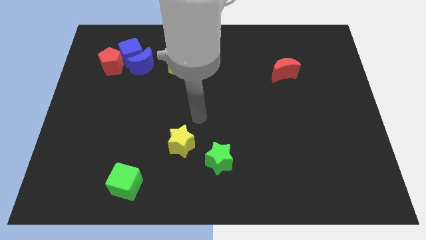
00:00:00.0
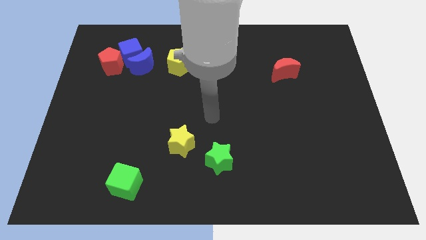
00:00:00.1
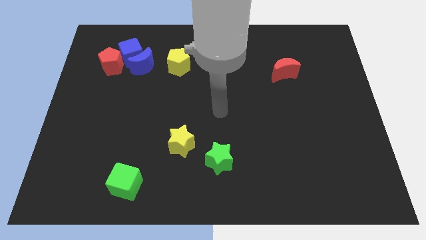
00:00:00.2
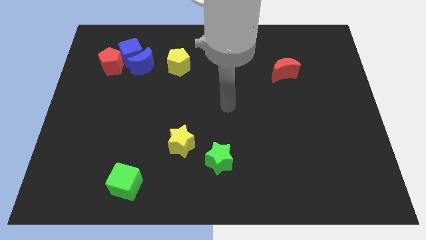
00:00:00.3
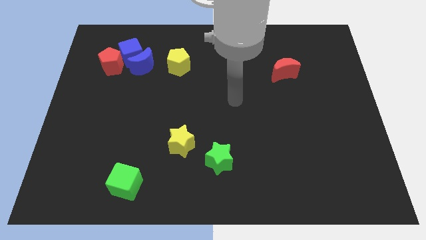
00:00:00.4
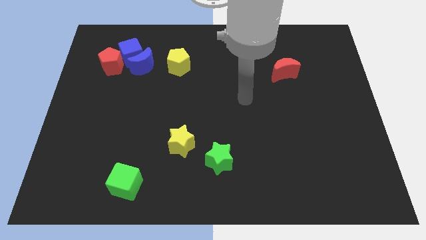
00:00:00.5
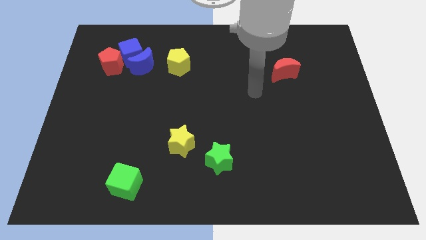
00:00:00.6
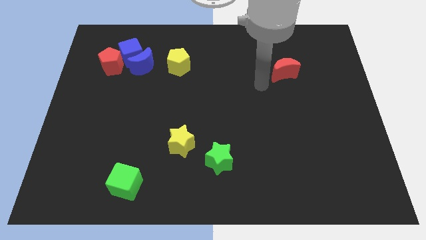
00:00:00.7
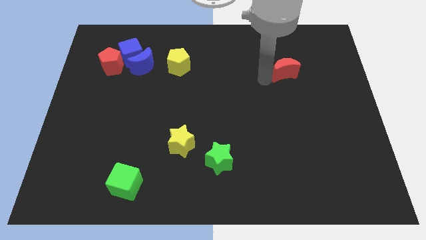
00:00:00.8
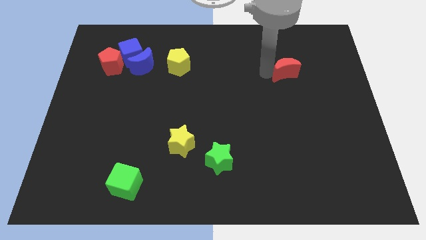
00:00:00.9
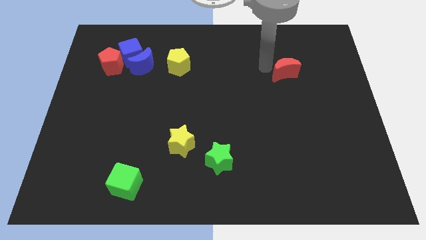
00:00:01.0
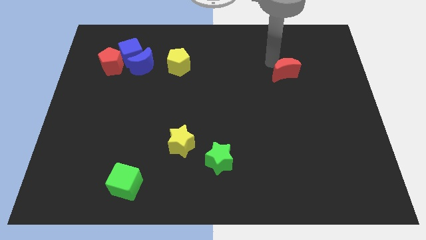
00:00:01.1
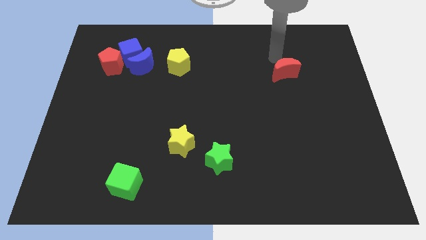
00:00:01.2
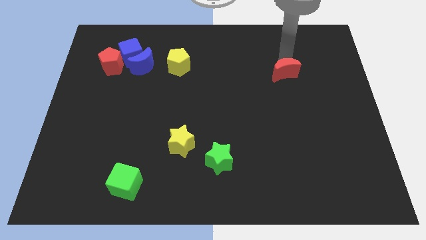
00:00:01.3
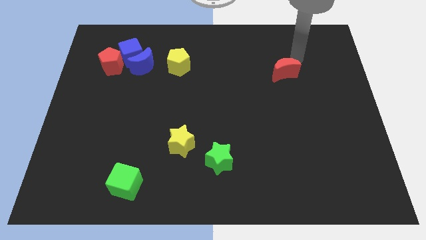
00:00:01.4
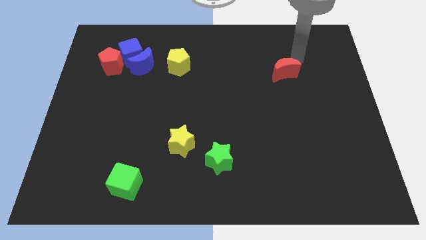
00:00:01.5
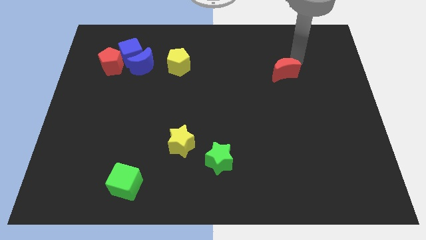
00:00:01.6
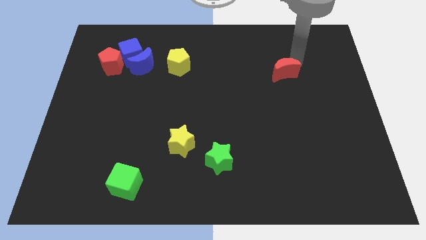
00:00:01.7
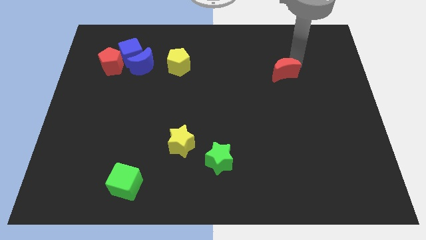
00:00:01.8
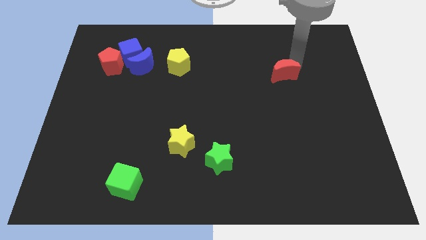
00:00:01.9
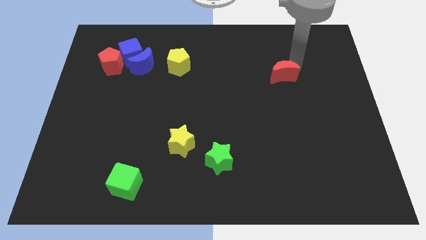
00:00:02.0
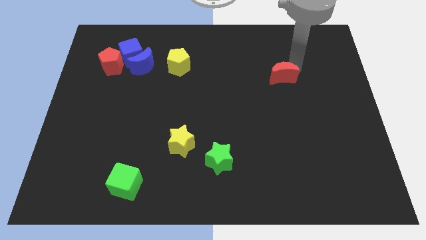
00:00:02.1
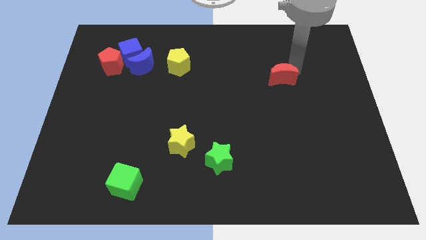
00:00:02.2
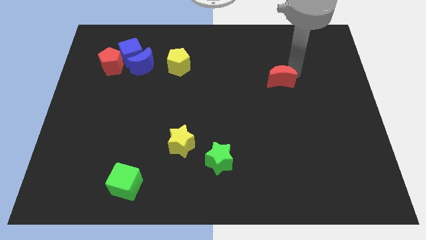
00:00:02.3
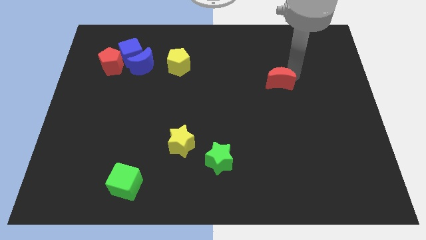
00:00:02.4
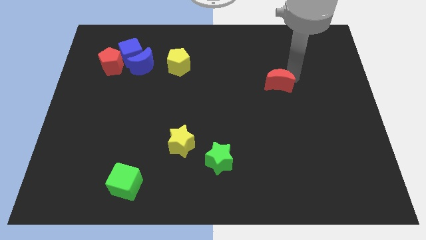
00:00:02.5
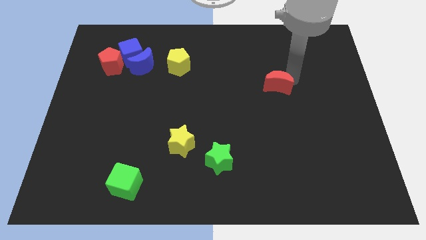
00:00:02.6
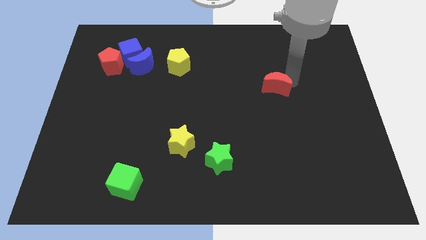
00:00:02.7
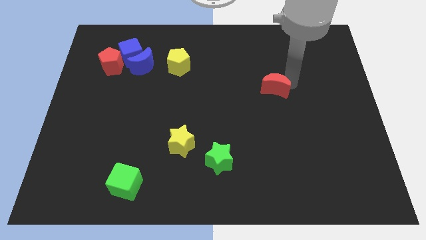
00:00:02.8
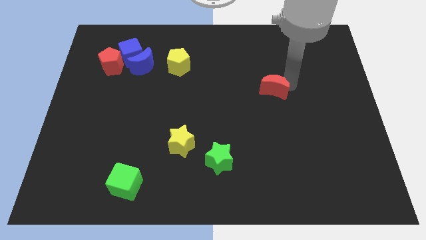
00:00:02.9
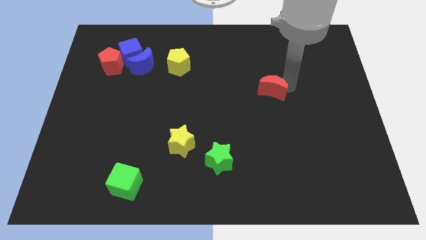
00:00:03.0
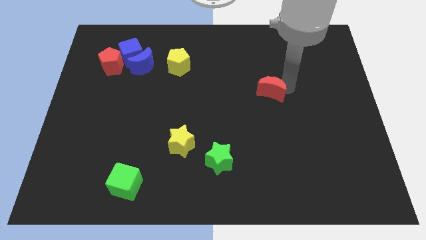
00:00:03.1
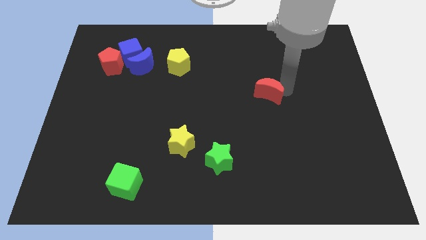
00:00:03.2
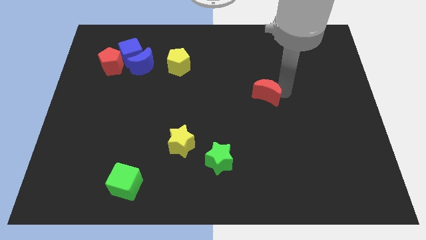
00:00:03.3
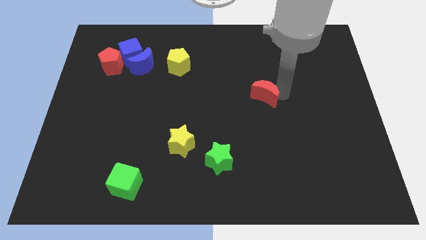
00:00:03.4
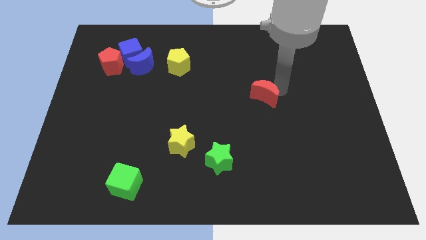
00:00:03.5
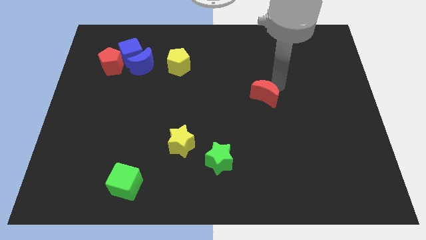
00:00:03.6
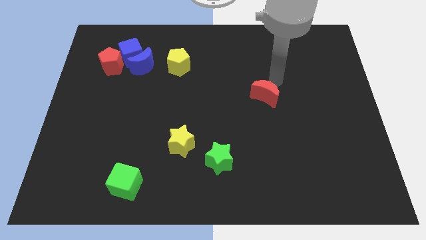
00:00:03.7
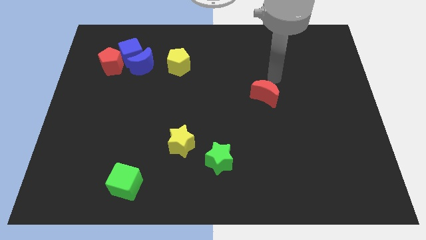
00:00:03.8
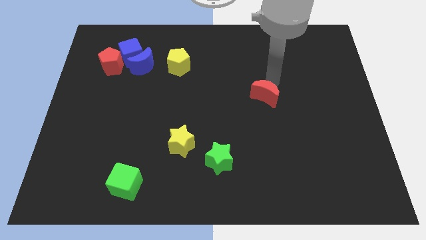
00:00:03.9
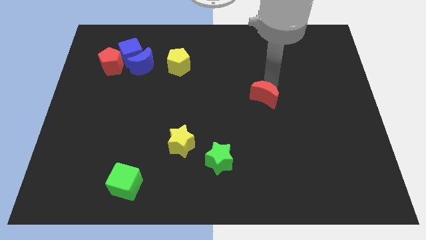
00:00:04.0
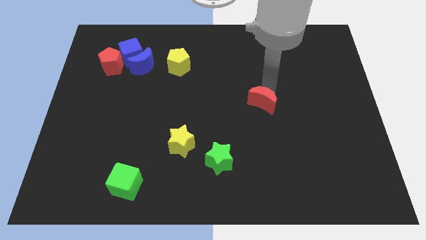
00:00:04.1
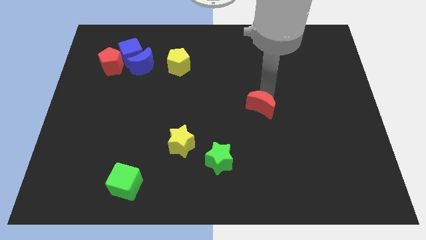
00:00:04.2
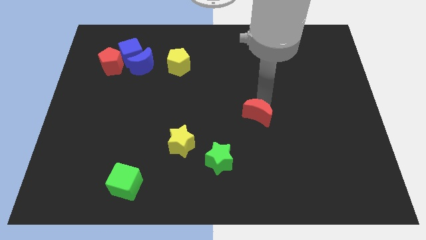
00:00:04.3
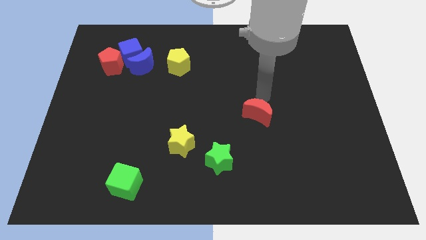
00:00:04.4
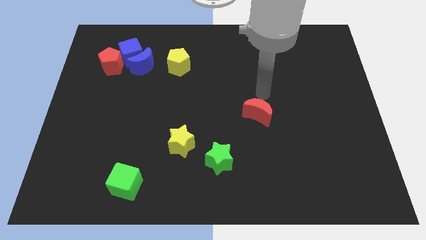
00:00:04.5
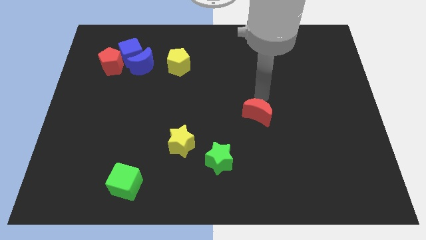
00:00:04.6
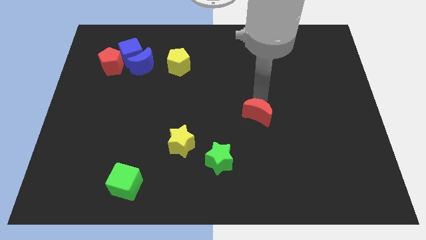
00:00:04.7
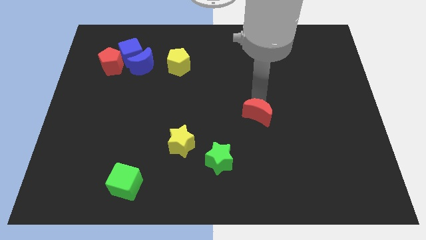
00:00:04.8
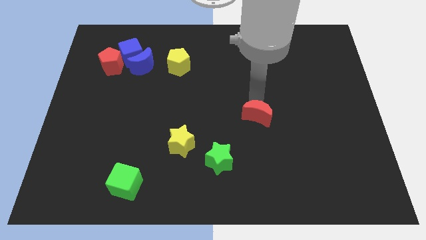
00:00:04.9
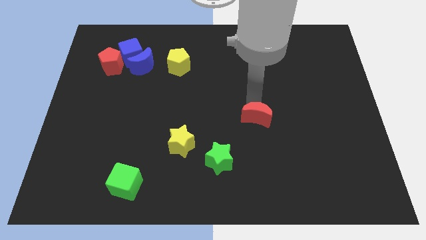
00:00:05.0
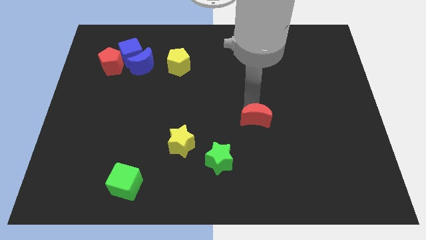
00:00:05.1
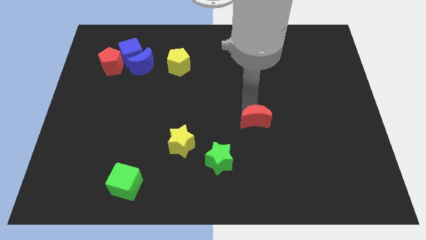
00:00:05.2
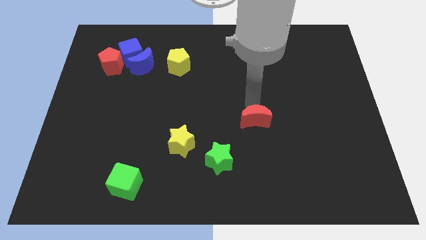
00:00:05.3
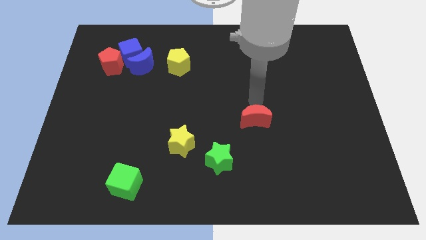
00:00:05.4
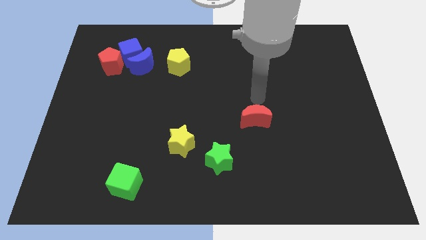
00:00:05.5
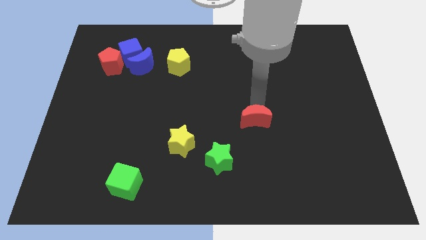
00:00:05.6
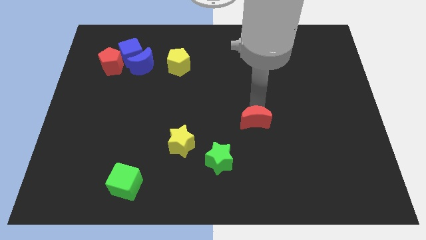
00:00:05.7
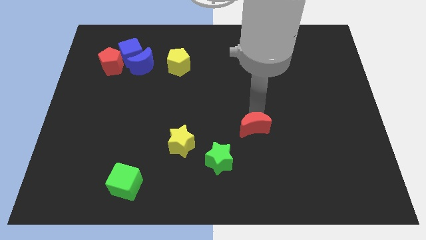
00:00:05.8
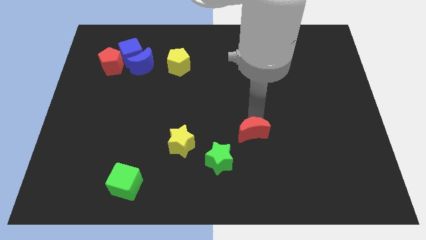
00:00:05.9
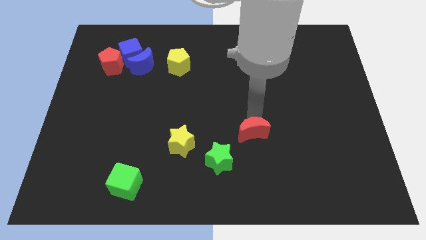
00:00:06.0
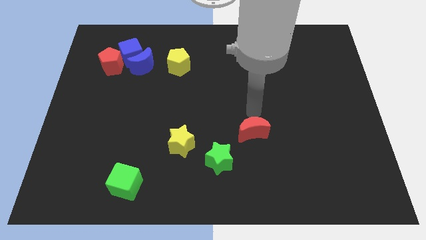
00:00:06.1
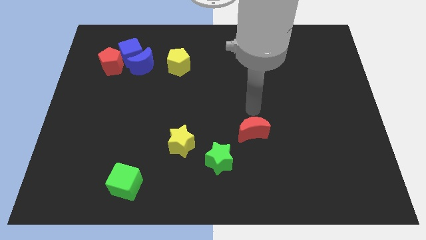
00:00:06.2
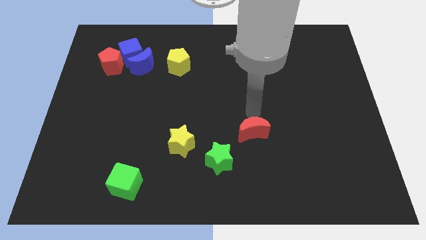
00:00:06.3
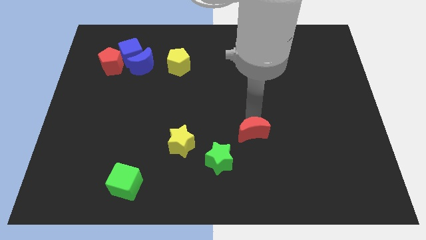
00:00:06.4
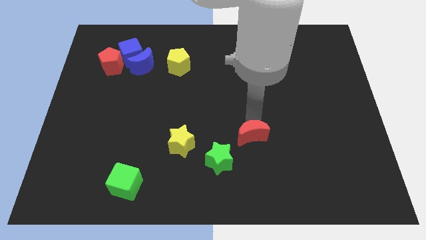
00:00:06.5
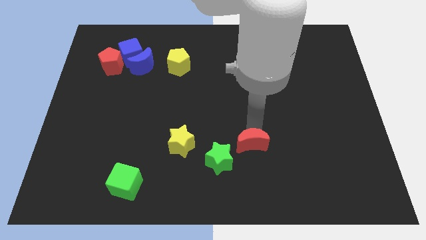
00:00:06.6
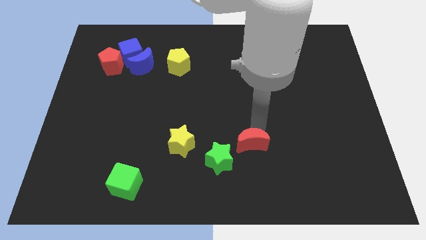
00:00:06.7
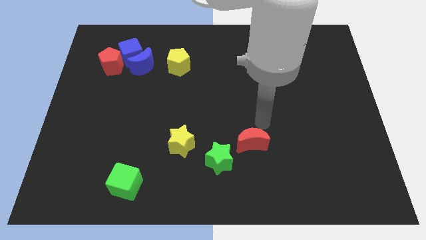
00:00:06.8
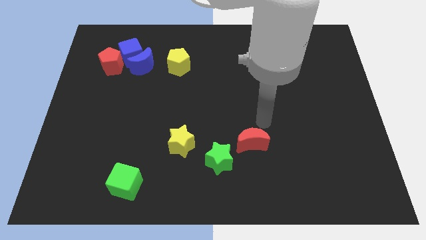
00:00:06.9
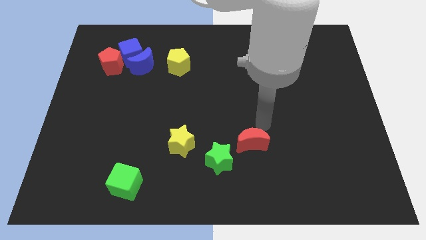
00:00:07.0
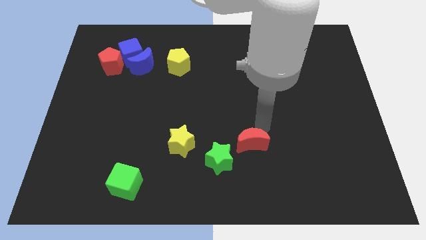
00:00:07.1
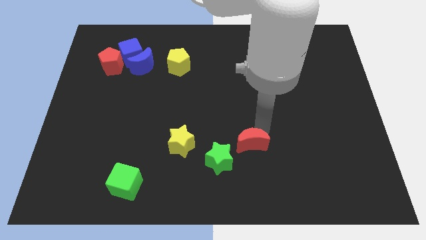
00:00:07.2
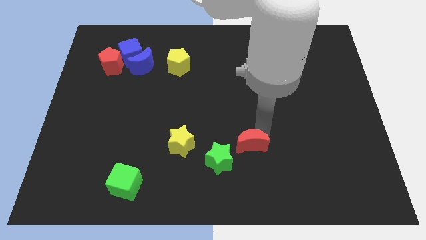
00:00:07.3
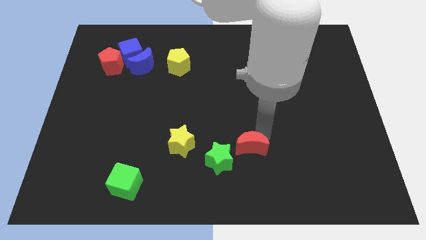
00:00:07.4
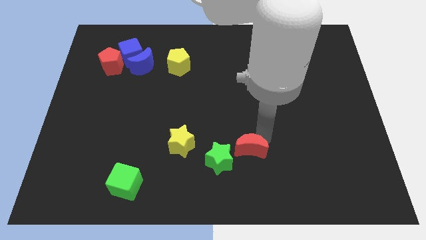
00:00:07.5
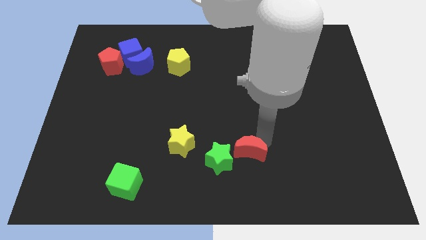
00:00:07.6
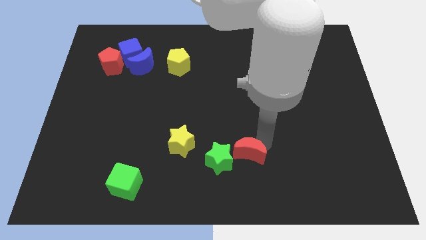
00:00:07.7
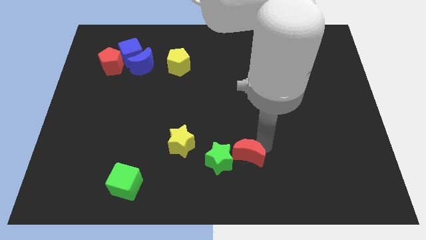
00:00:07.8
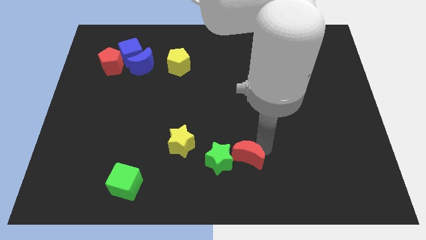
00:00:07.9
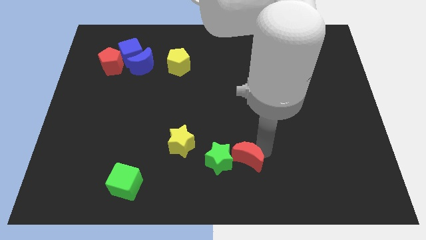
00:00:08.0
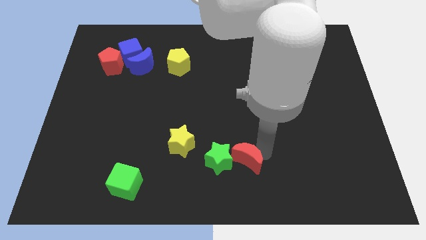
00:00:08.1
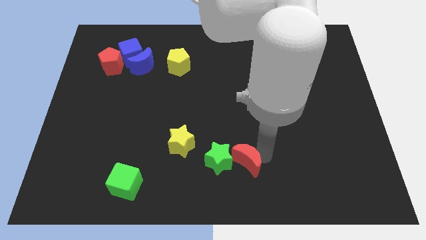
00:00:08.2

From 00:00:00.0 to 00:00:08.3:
push the red moon to the bottom side
